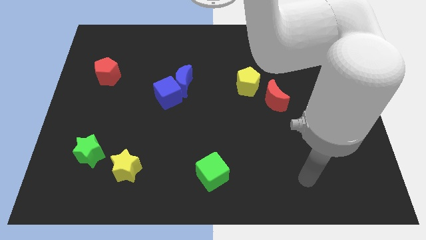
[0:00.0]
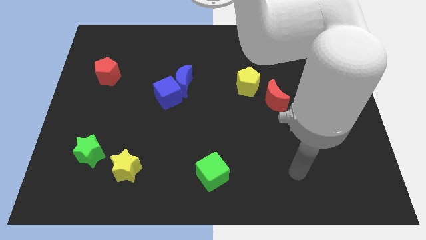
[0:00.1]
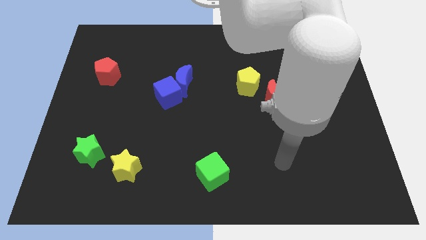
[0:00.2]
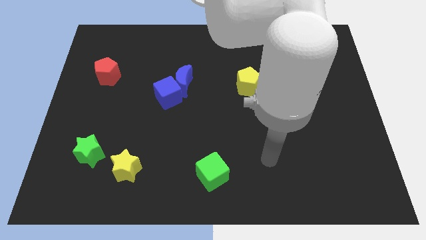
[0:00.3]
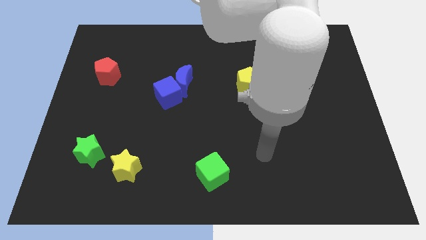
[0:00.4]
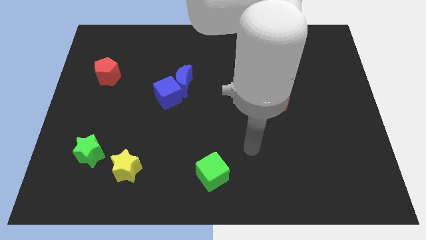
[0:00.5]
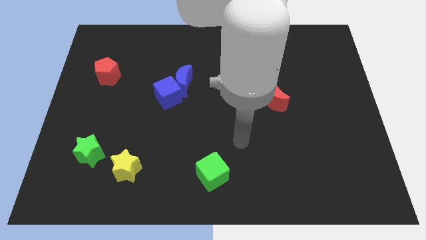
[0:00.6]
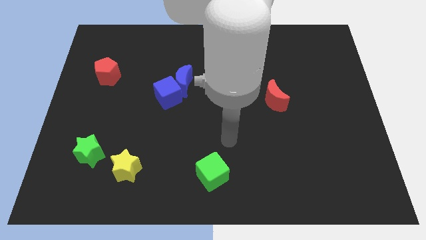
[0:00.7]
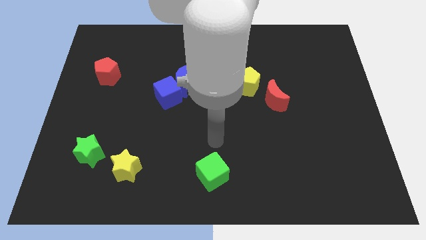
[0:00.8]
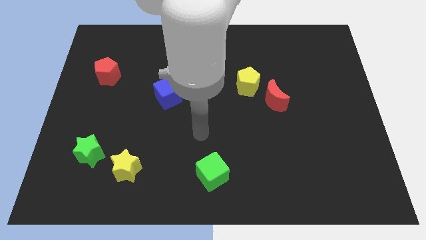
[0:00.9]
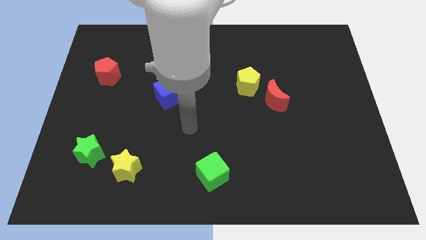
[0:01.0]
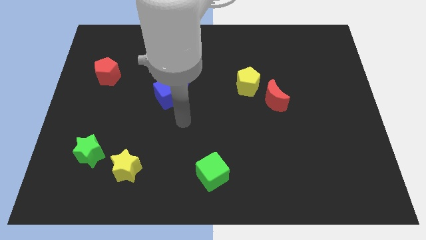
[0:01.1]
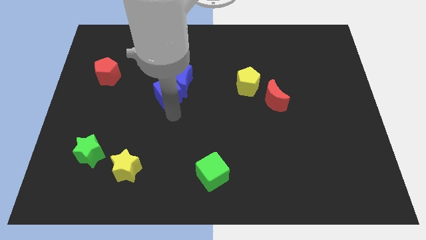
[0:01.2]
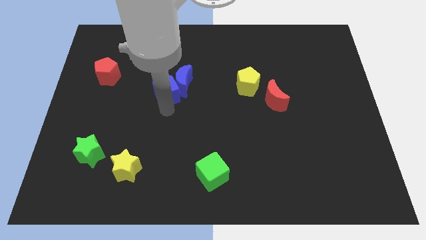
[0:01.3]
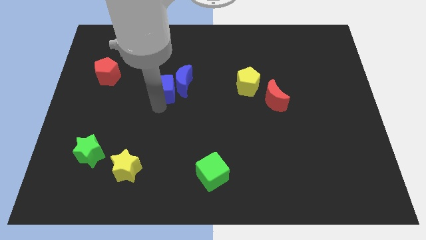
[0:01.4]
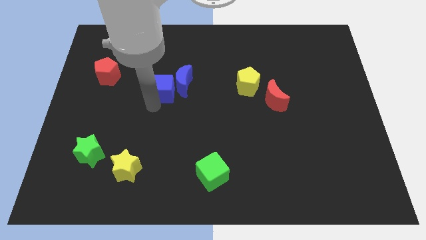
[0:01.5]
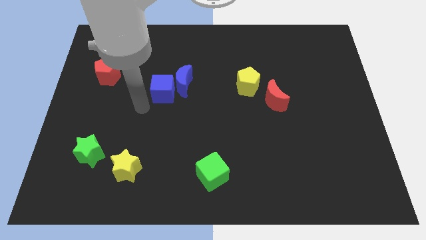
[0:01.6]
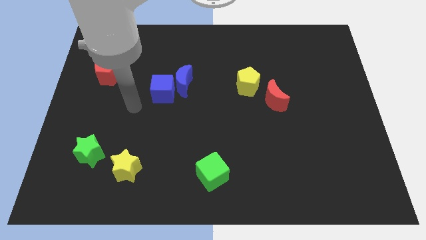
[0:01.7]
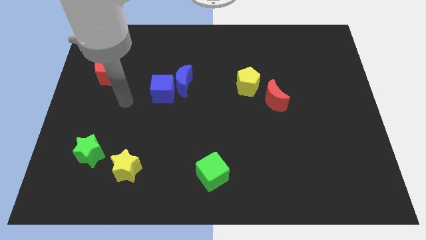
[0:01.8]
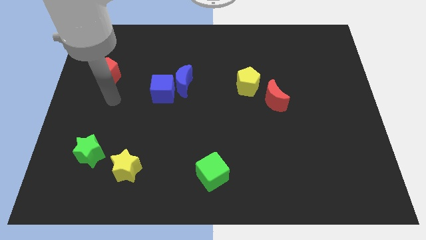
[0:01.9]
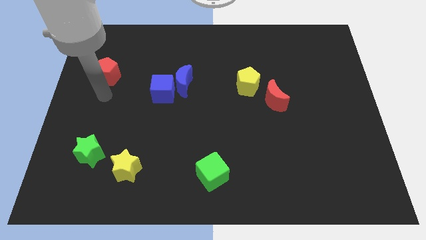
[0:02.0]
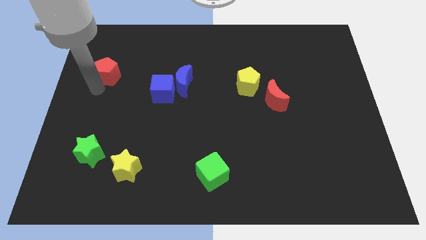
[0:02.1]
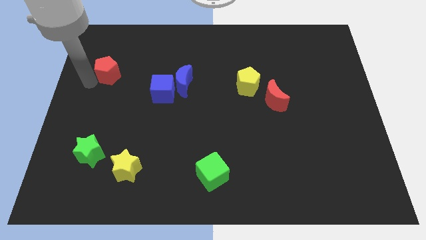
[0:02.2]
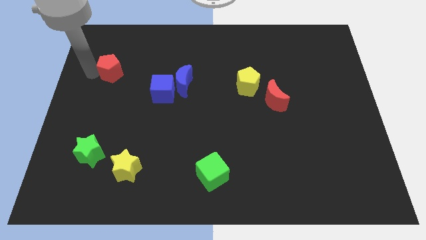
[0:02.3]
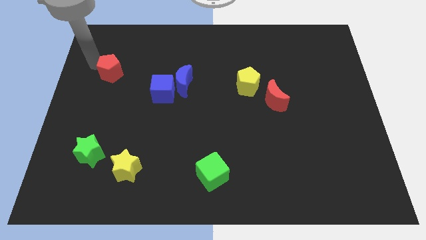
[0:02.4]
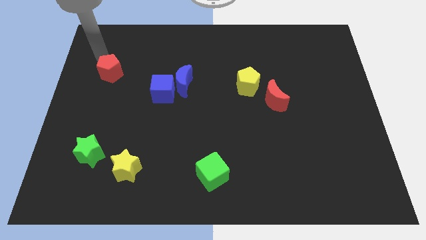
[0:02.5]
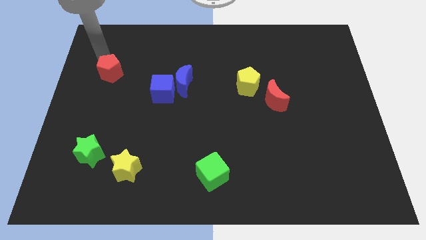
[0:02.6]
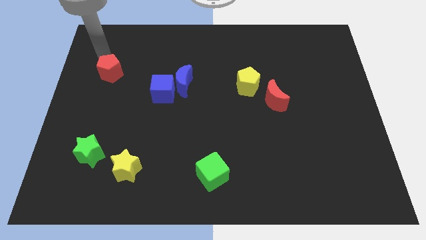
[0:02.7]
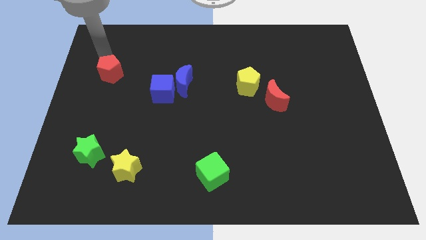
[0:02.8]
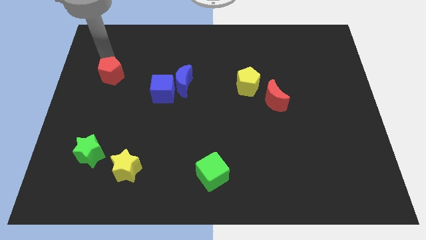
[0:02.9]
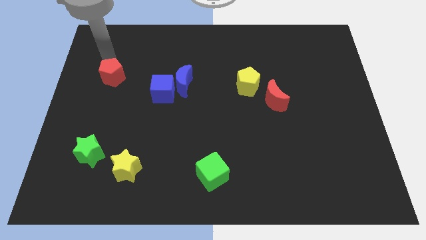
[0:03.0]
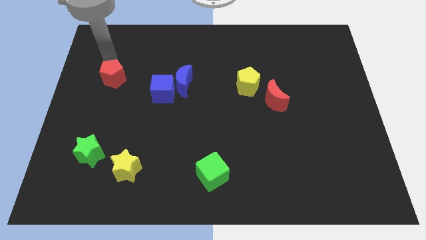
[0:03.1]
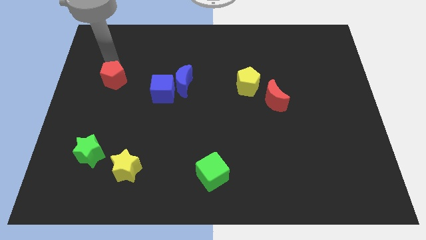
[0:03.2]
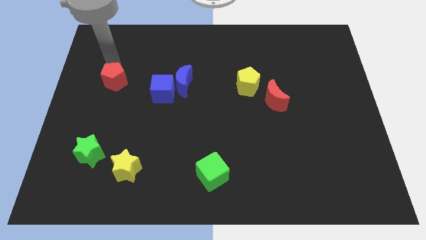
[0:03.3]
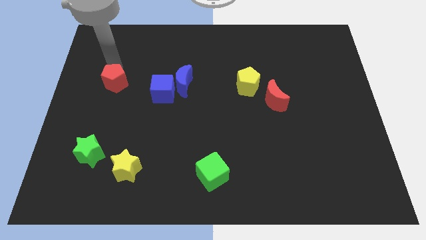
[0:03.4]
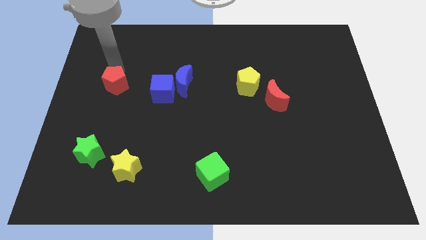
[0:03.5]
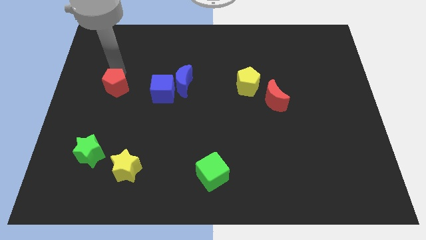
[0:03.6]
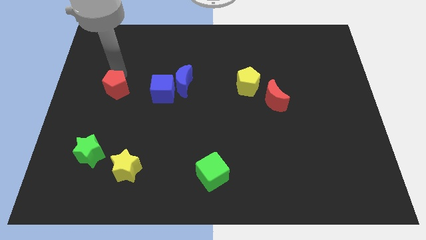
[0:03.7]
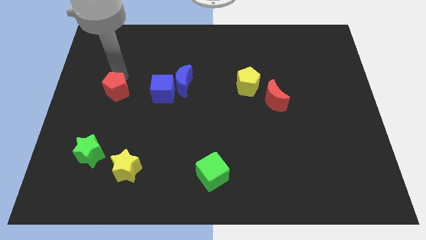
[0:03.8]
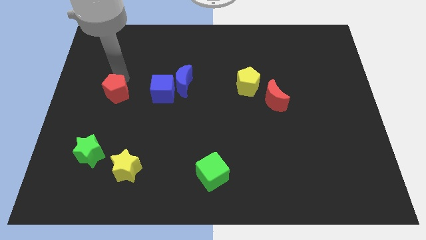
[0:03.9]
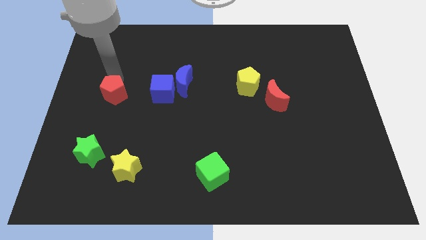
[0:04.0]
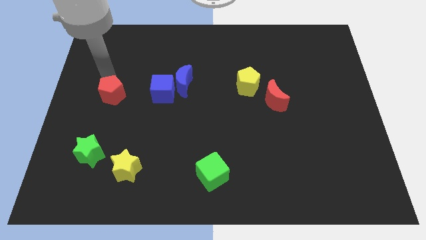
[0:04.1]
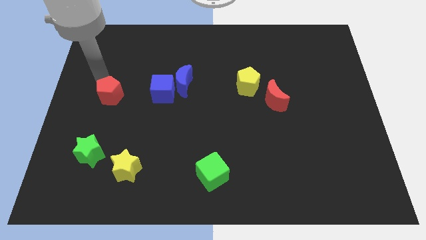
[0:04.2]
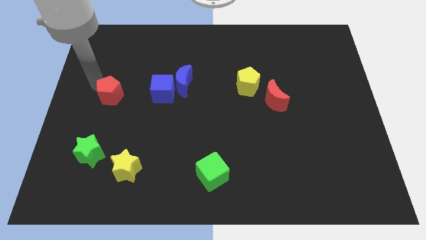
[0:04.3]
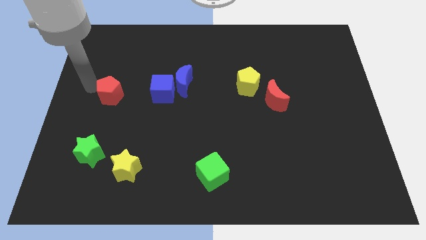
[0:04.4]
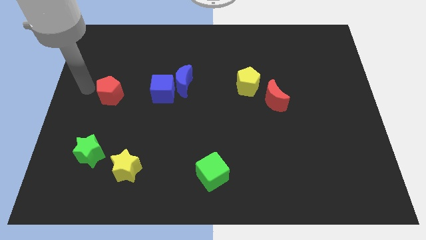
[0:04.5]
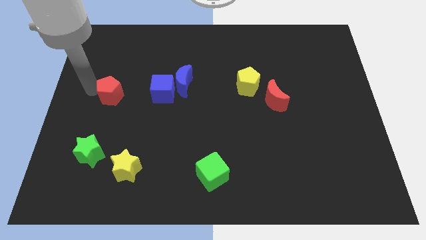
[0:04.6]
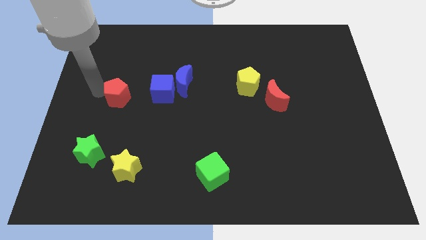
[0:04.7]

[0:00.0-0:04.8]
slide the red pentagon diagonally down and right slightly

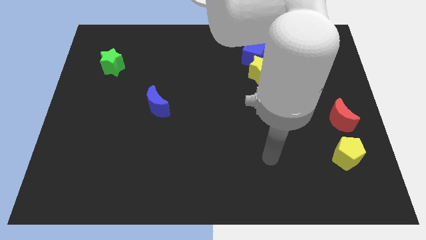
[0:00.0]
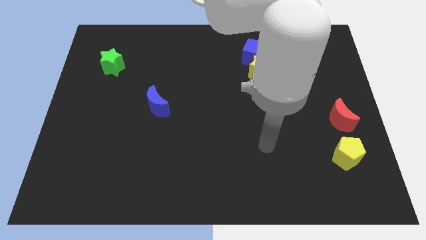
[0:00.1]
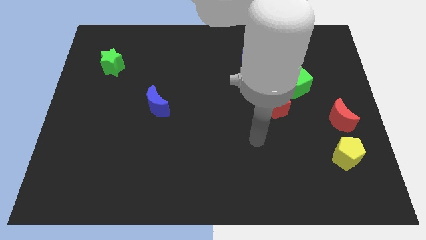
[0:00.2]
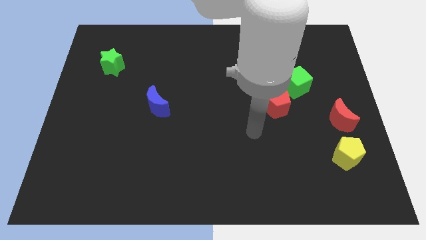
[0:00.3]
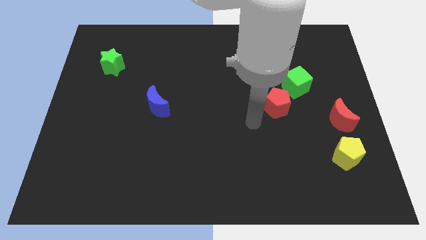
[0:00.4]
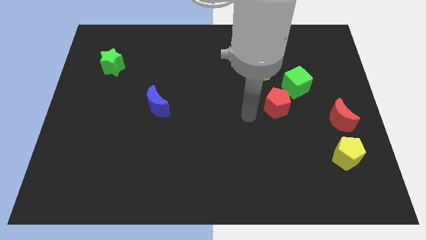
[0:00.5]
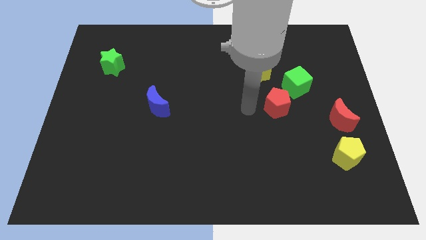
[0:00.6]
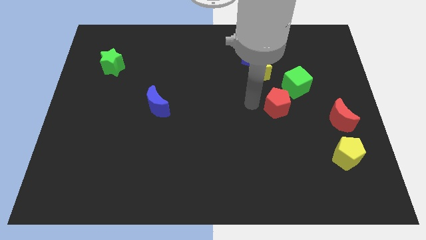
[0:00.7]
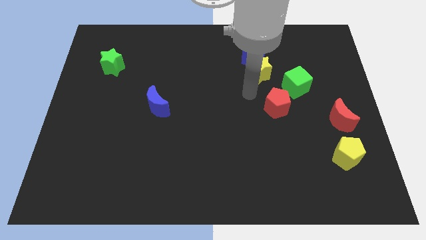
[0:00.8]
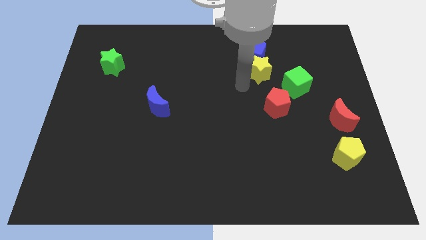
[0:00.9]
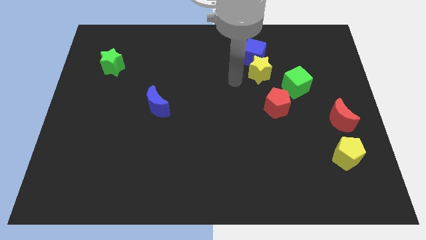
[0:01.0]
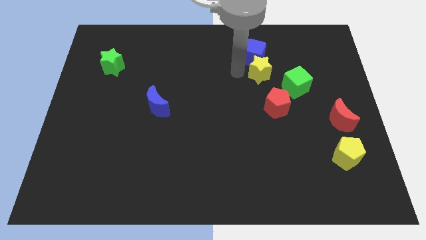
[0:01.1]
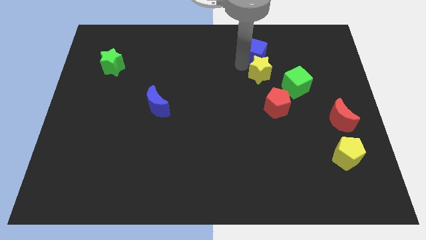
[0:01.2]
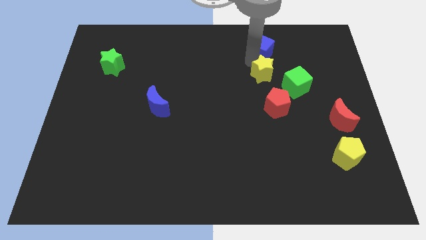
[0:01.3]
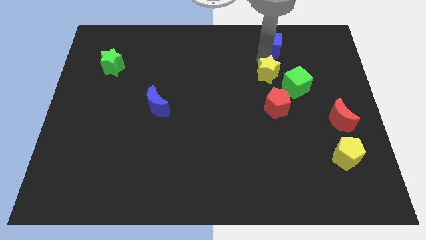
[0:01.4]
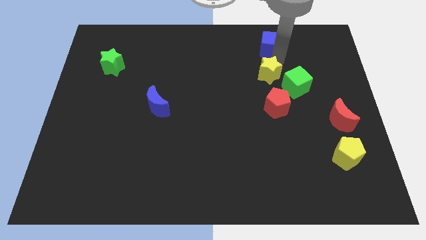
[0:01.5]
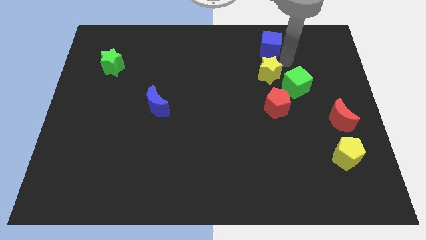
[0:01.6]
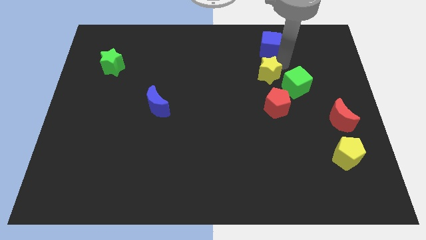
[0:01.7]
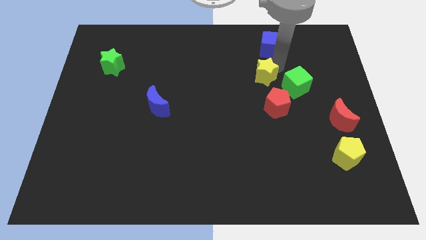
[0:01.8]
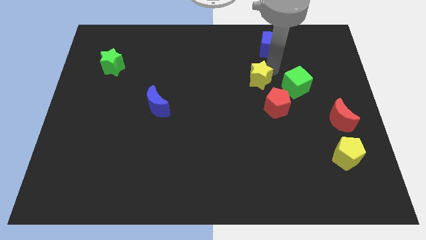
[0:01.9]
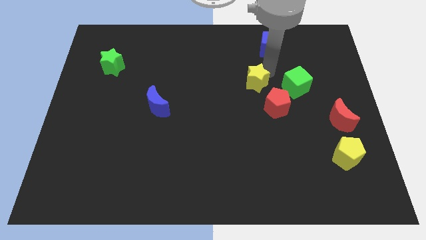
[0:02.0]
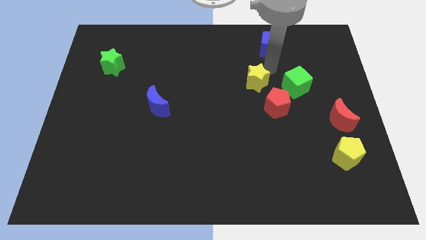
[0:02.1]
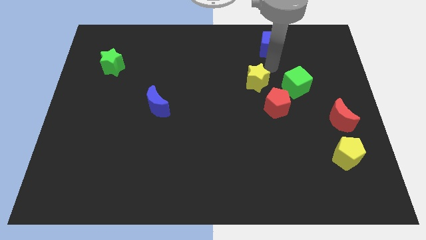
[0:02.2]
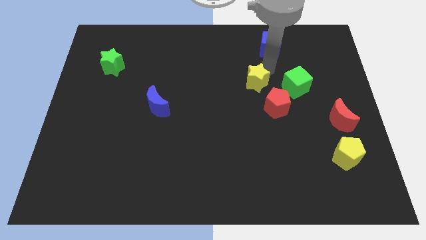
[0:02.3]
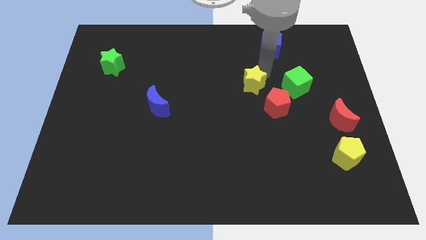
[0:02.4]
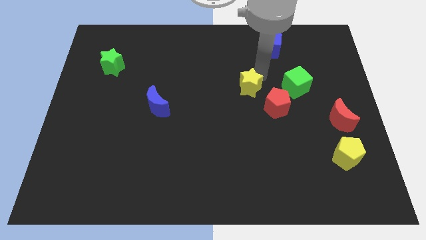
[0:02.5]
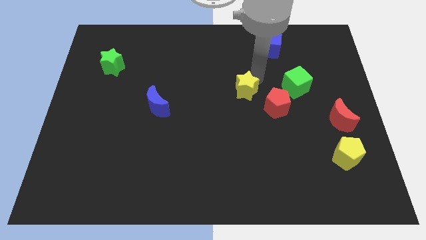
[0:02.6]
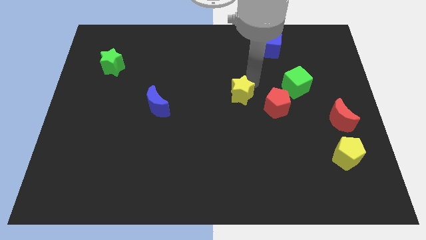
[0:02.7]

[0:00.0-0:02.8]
move the yellow star a bit downwards and then to the left

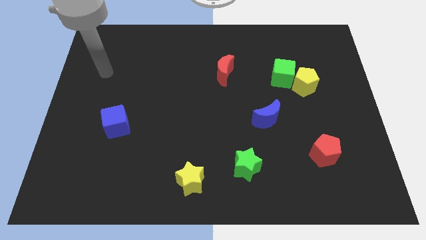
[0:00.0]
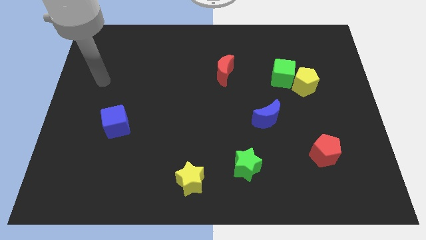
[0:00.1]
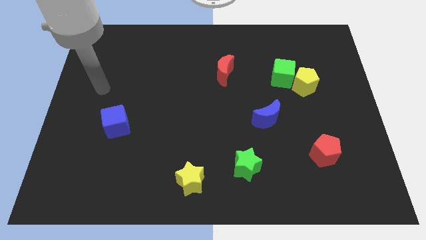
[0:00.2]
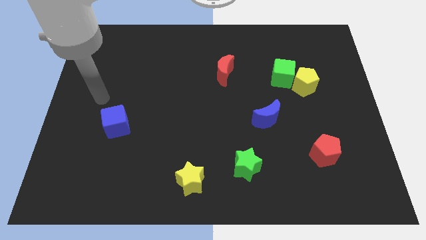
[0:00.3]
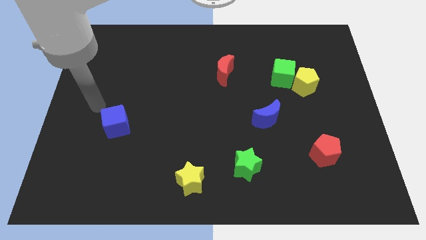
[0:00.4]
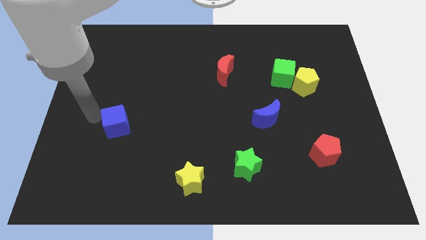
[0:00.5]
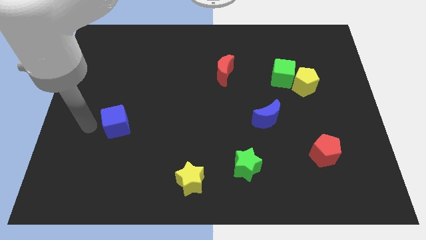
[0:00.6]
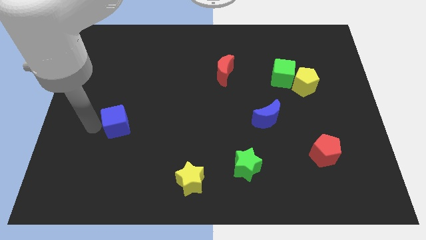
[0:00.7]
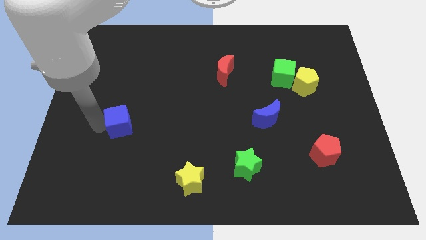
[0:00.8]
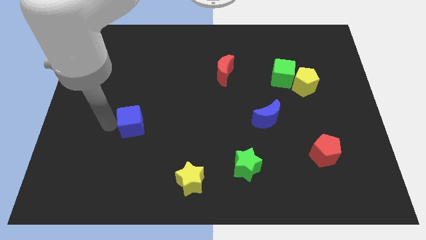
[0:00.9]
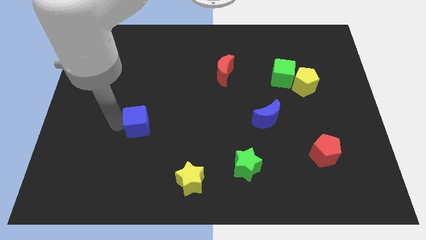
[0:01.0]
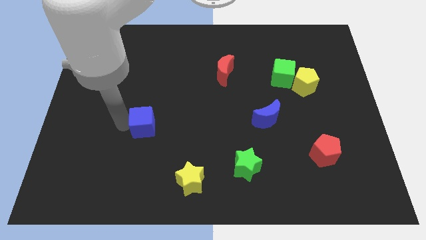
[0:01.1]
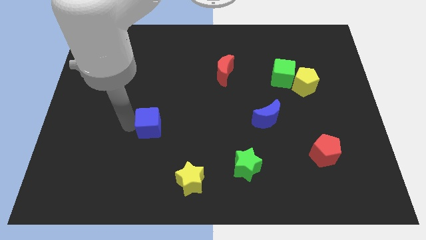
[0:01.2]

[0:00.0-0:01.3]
move the blue cube a bit right
